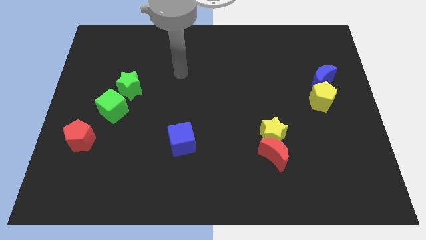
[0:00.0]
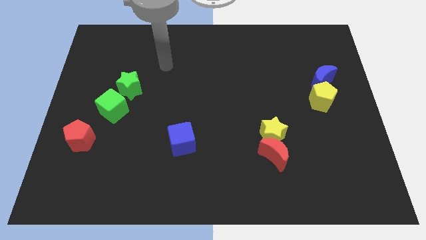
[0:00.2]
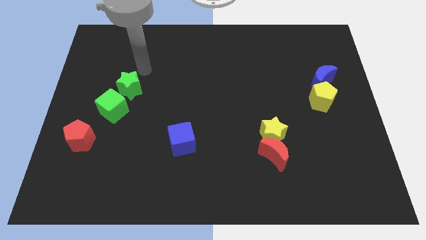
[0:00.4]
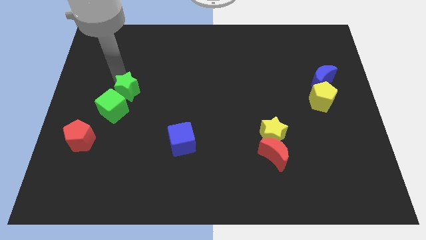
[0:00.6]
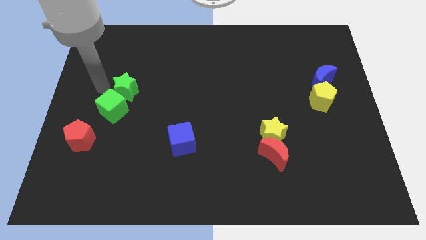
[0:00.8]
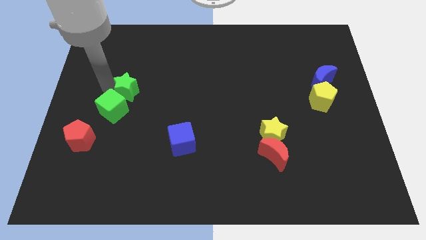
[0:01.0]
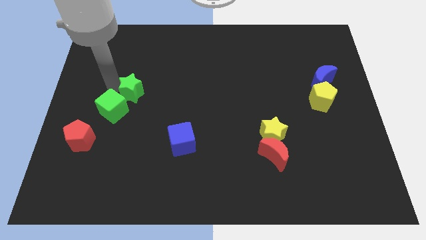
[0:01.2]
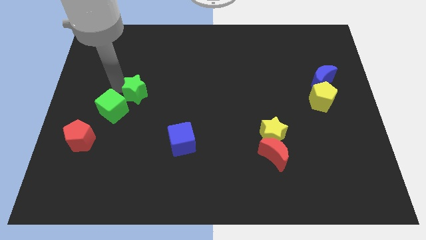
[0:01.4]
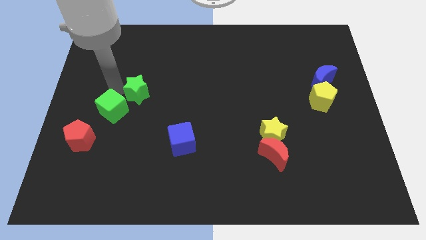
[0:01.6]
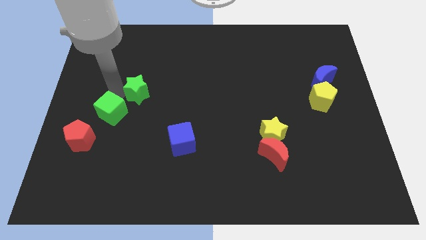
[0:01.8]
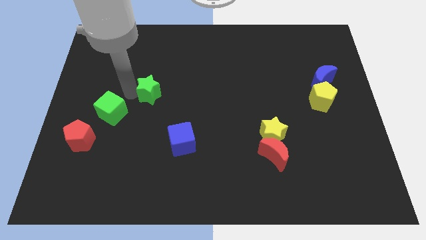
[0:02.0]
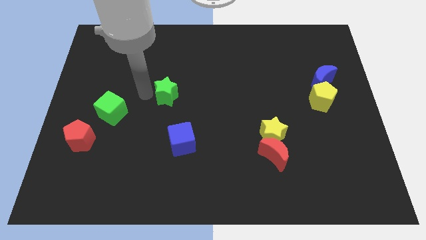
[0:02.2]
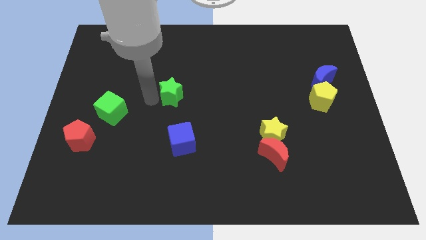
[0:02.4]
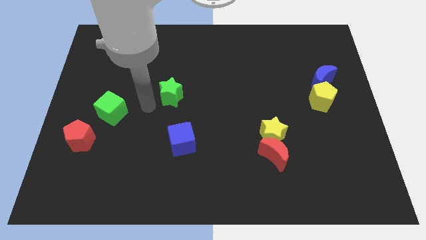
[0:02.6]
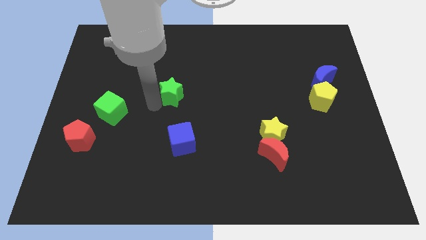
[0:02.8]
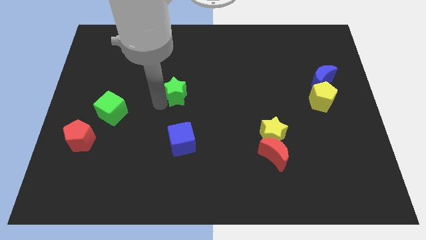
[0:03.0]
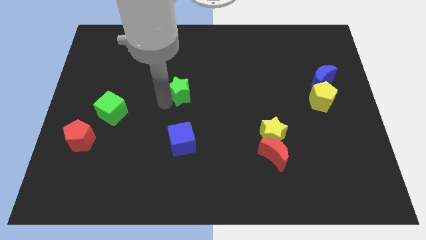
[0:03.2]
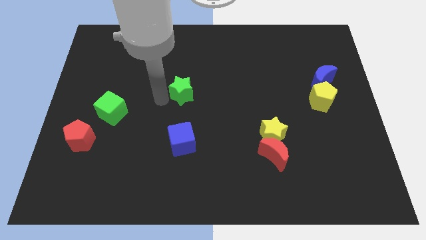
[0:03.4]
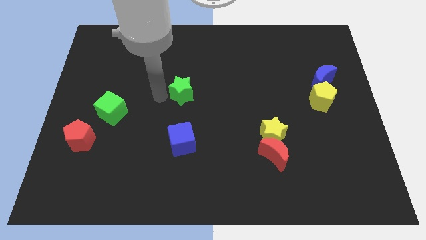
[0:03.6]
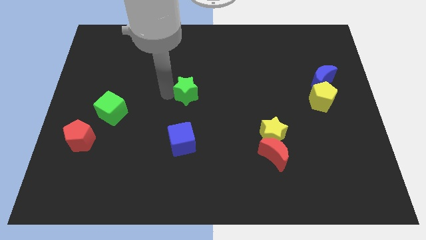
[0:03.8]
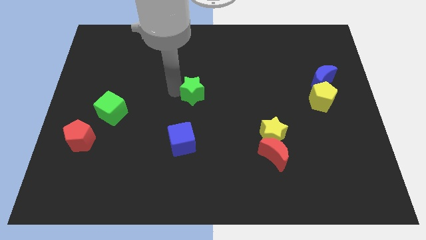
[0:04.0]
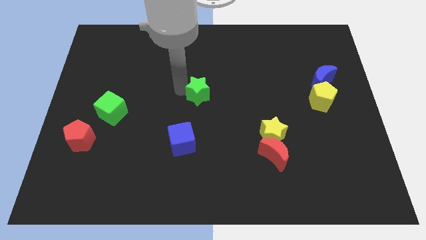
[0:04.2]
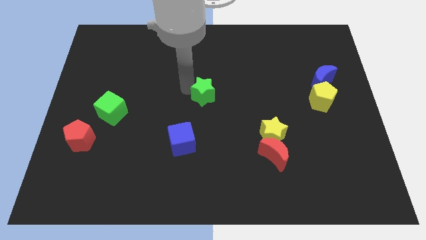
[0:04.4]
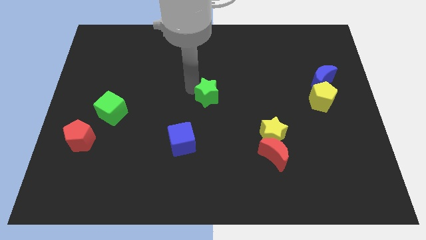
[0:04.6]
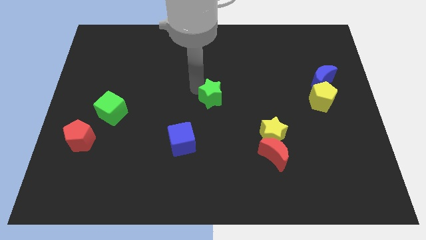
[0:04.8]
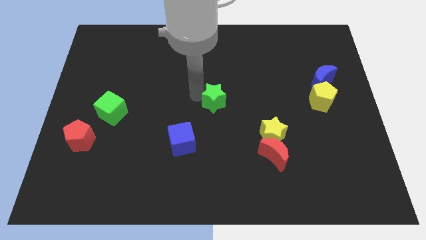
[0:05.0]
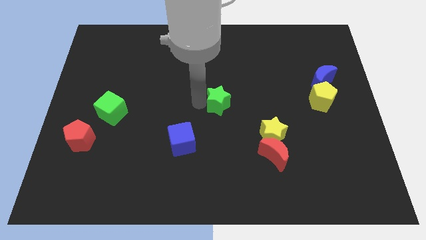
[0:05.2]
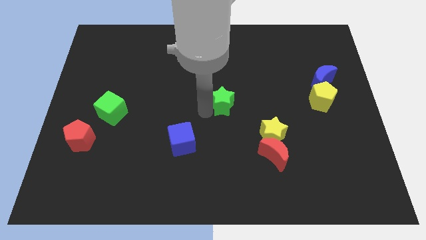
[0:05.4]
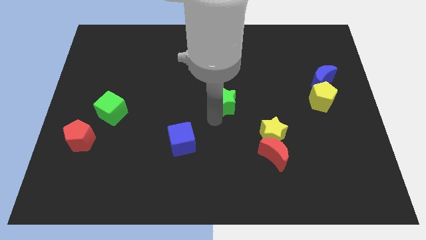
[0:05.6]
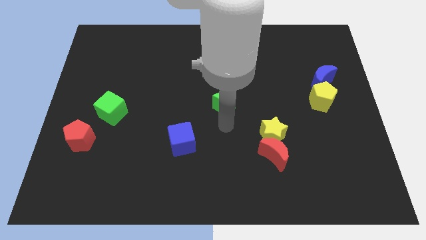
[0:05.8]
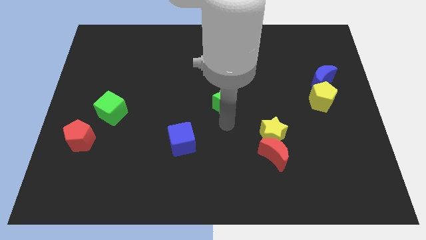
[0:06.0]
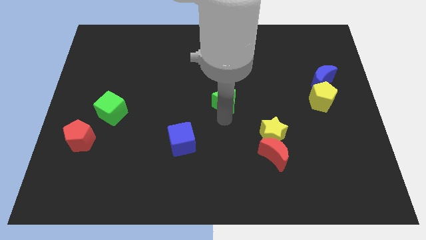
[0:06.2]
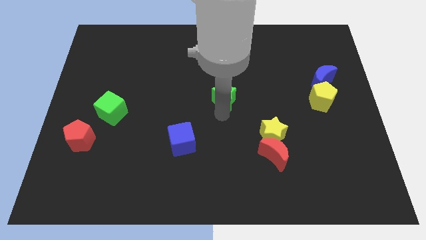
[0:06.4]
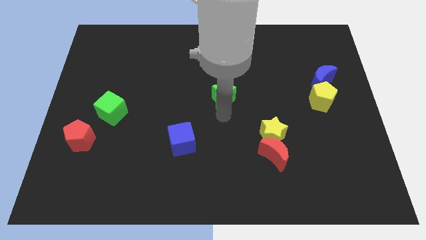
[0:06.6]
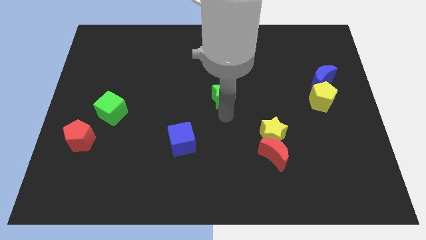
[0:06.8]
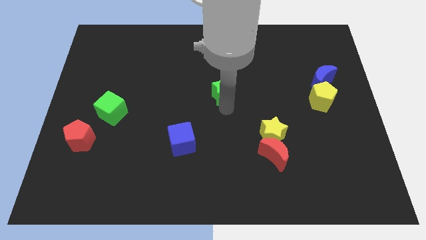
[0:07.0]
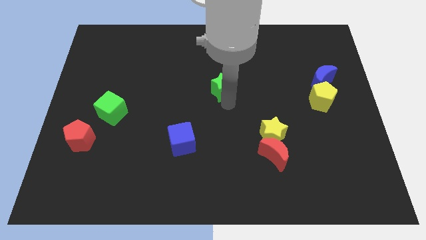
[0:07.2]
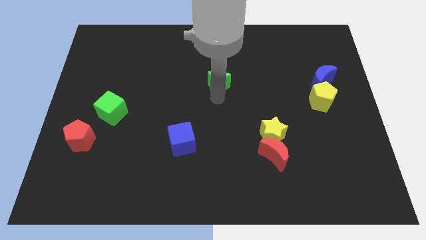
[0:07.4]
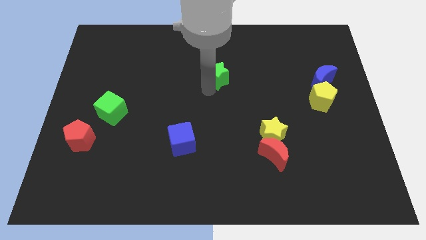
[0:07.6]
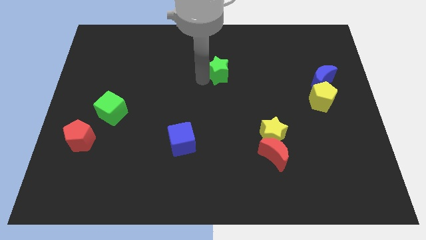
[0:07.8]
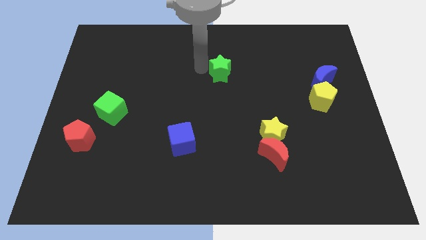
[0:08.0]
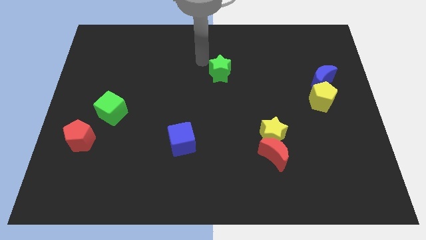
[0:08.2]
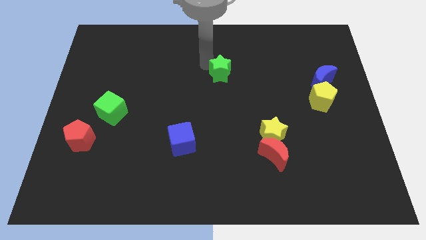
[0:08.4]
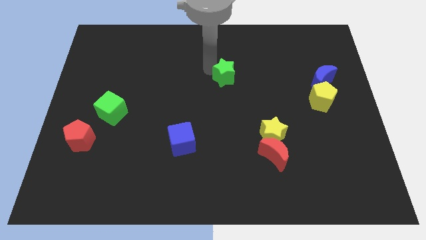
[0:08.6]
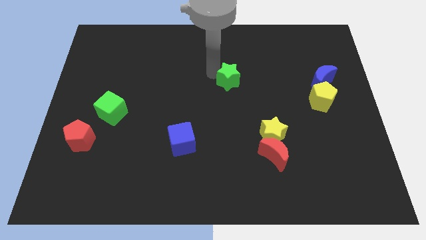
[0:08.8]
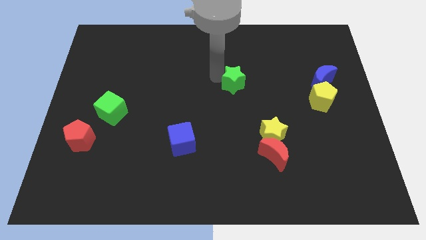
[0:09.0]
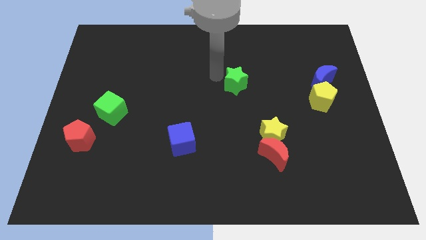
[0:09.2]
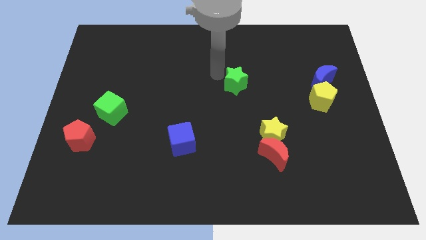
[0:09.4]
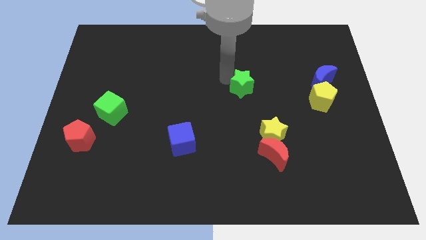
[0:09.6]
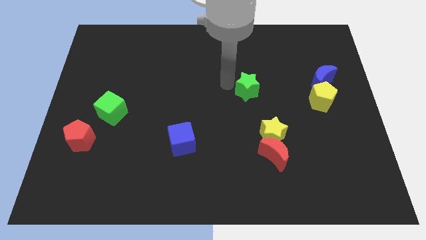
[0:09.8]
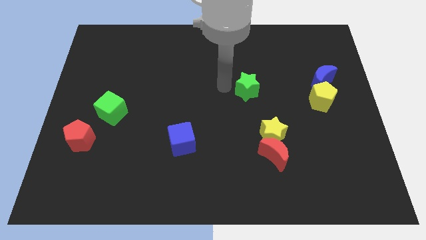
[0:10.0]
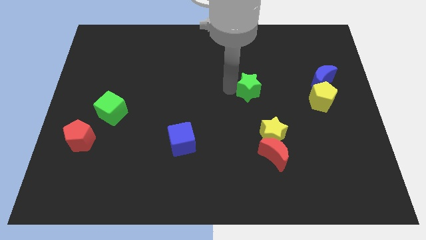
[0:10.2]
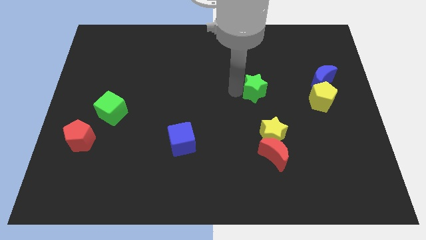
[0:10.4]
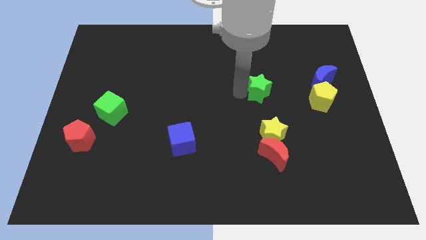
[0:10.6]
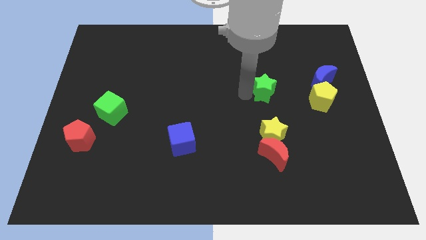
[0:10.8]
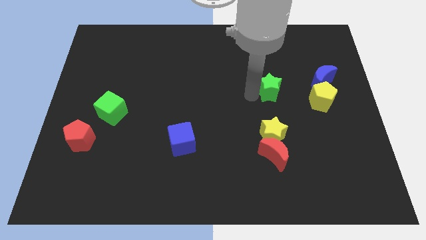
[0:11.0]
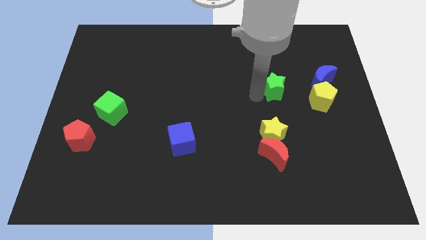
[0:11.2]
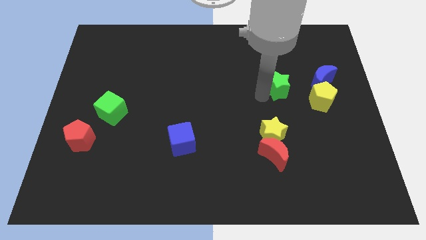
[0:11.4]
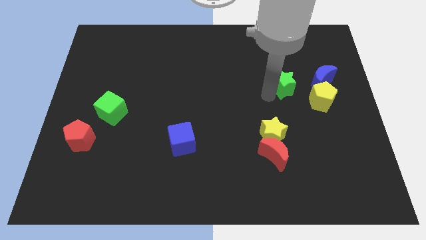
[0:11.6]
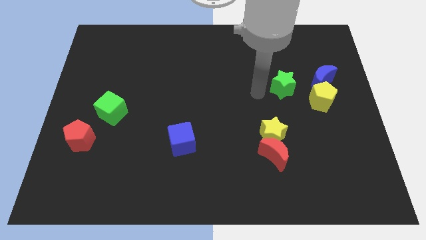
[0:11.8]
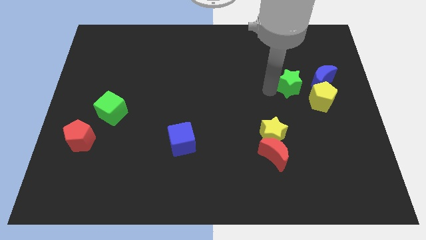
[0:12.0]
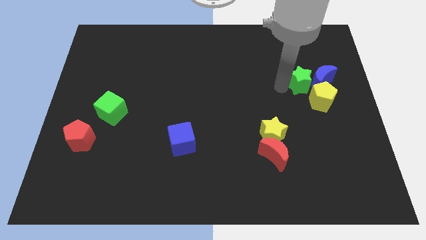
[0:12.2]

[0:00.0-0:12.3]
push the green star close to the blue moon

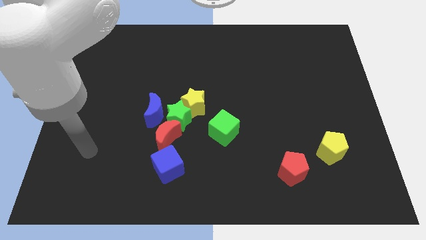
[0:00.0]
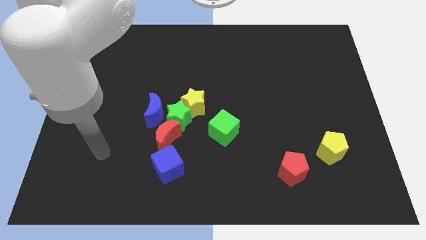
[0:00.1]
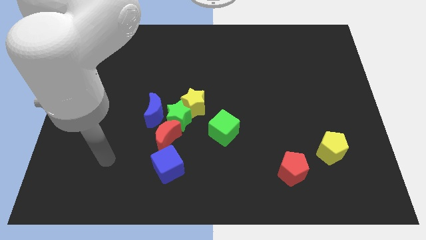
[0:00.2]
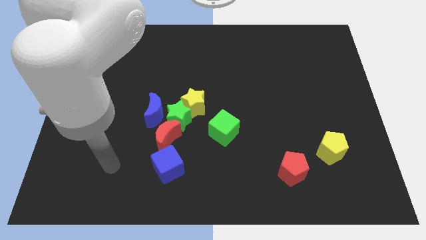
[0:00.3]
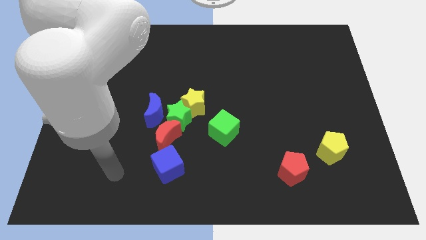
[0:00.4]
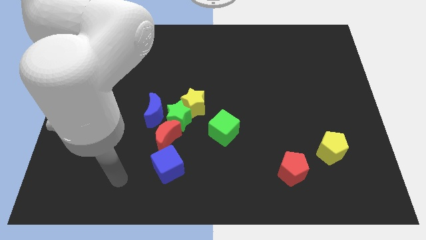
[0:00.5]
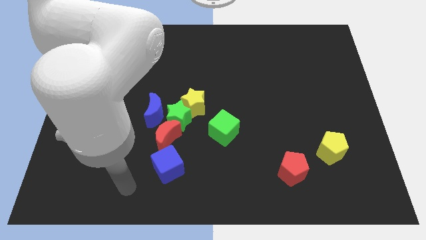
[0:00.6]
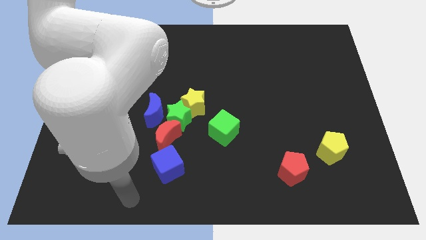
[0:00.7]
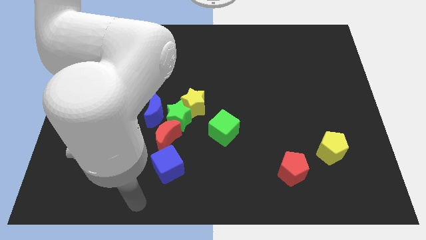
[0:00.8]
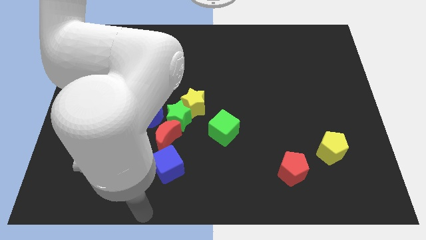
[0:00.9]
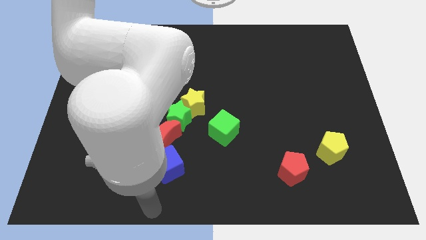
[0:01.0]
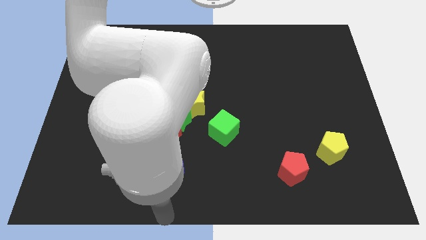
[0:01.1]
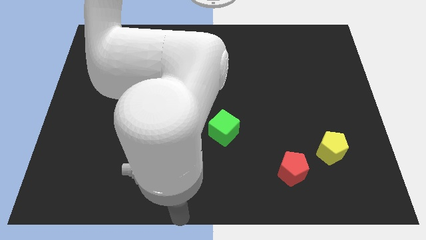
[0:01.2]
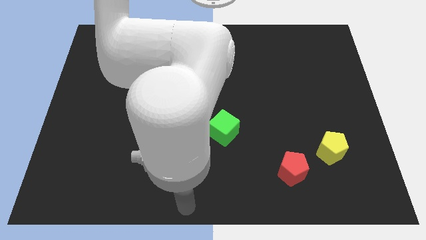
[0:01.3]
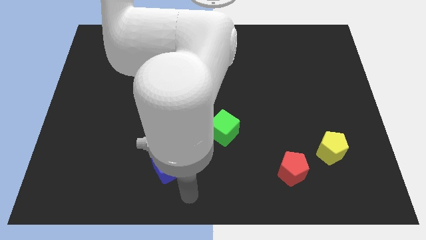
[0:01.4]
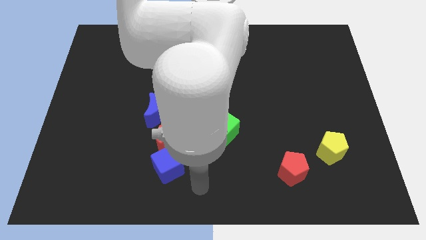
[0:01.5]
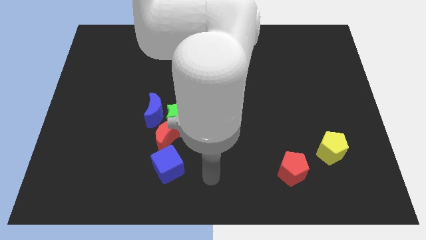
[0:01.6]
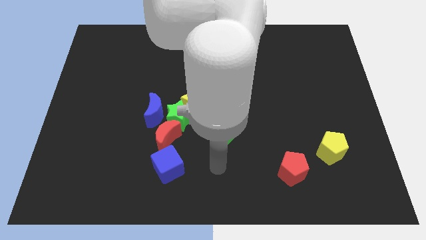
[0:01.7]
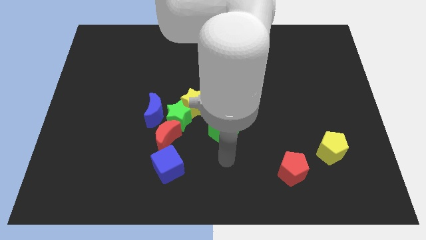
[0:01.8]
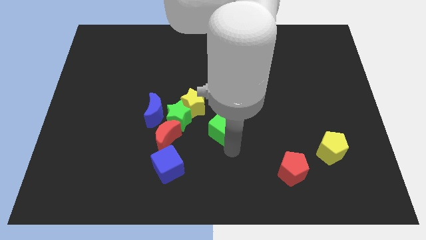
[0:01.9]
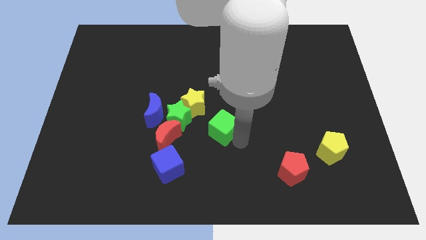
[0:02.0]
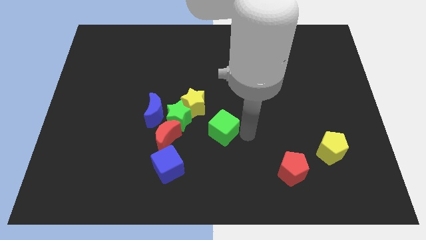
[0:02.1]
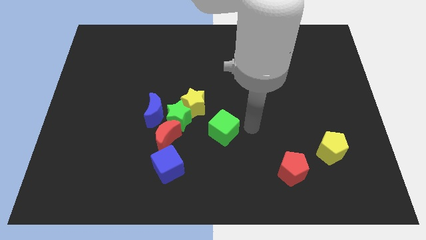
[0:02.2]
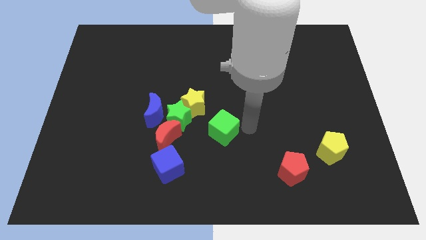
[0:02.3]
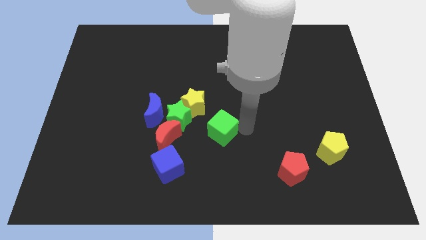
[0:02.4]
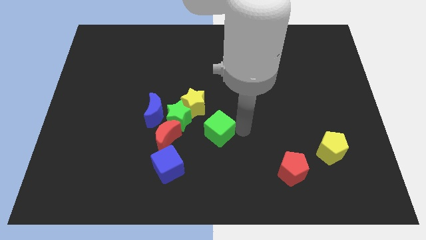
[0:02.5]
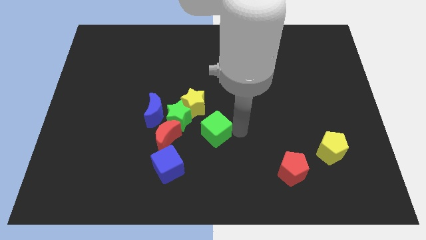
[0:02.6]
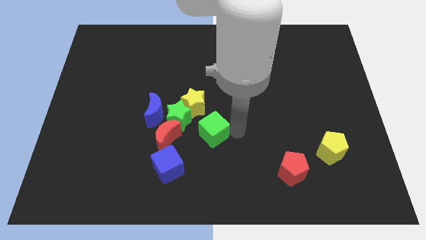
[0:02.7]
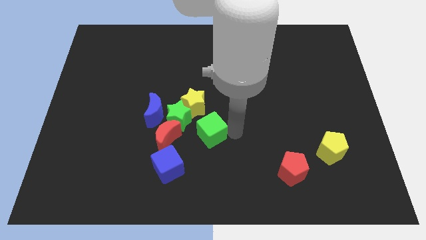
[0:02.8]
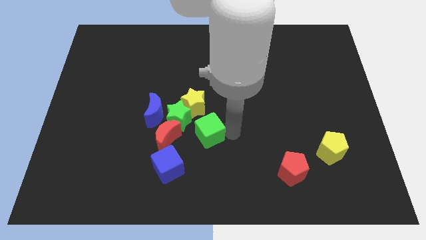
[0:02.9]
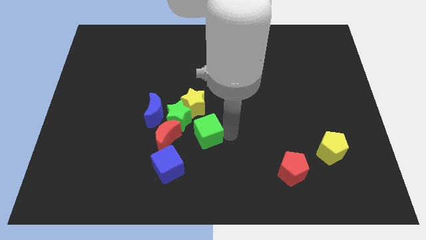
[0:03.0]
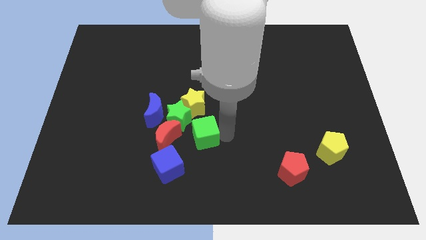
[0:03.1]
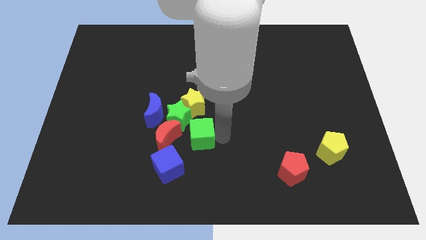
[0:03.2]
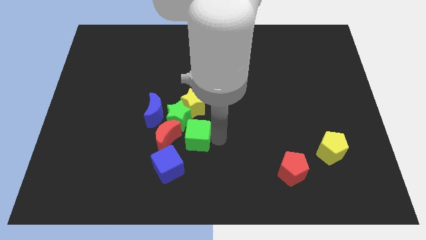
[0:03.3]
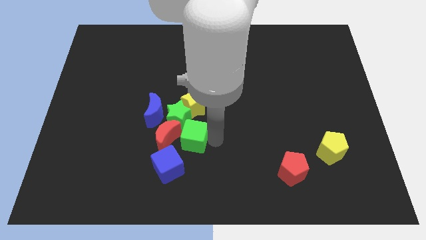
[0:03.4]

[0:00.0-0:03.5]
put the green cube next to the red moon
